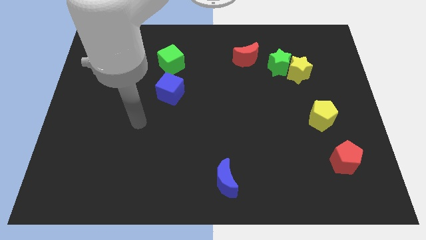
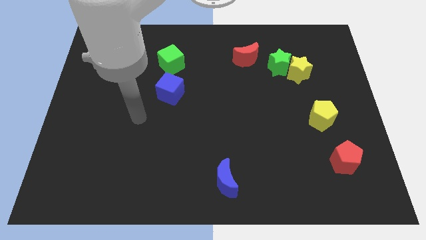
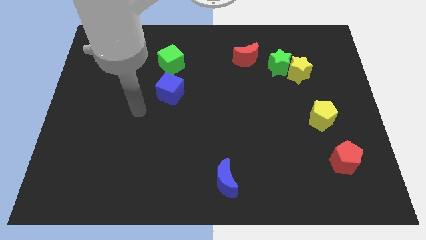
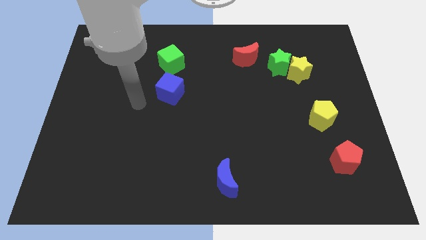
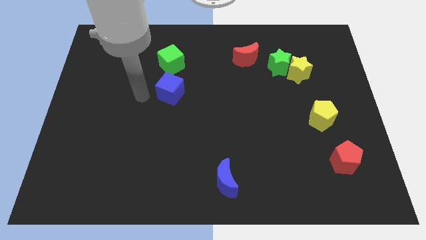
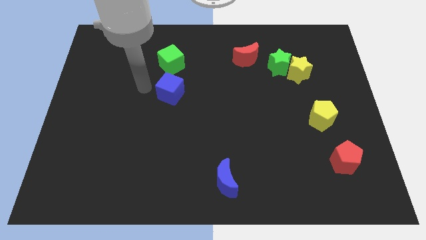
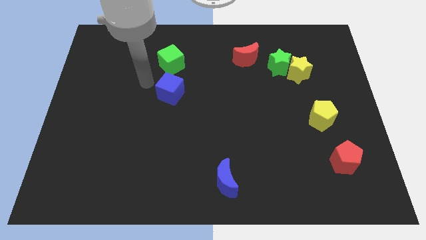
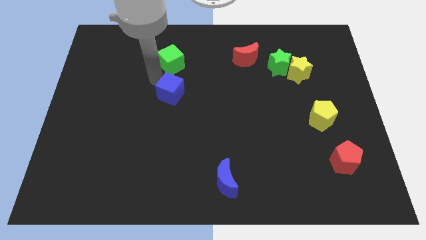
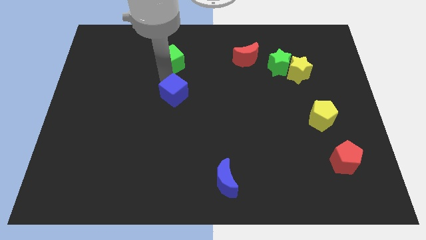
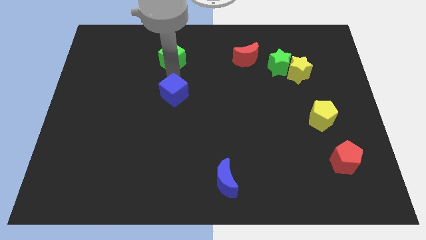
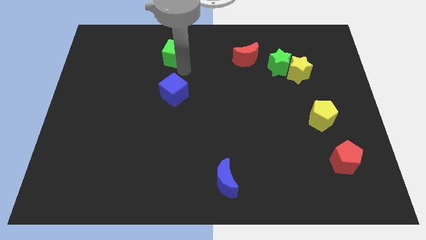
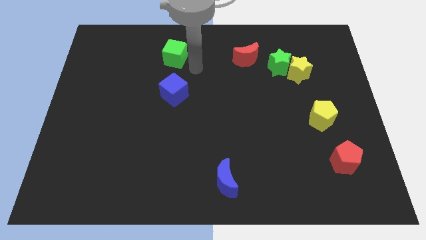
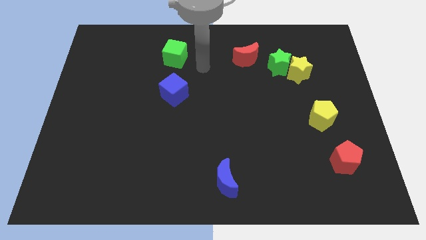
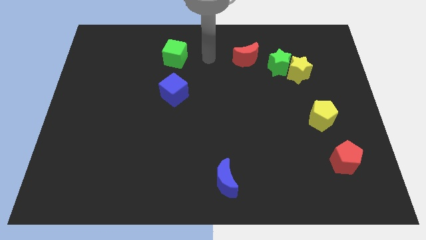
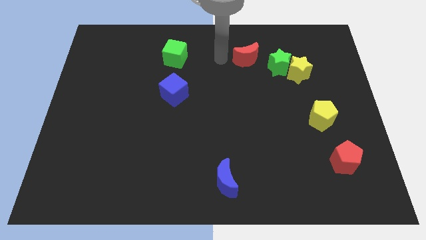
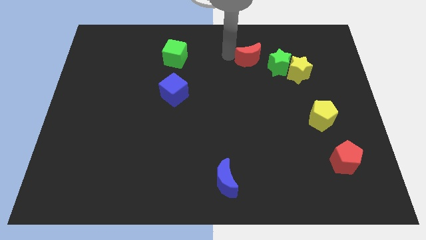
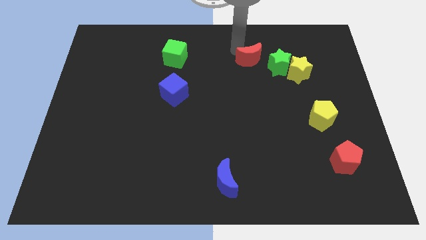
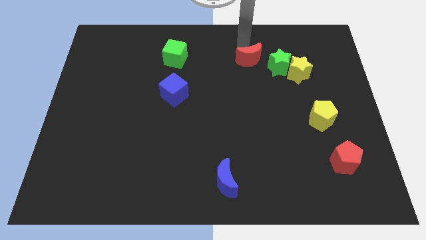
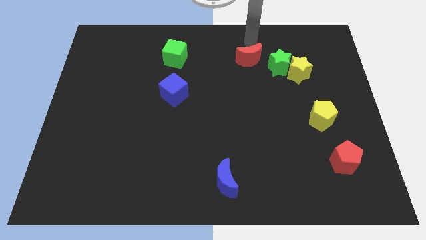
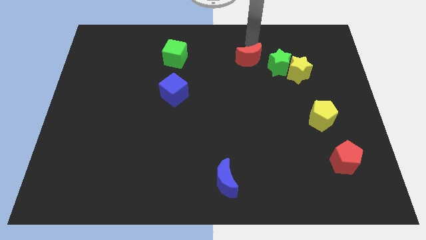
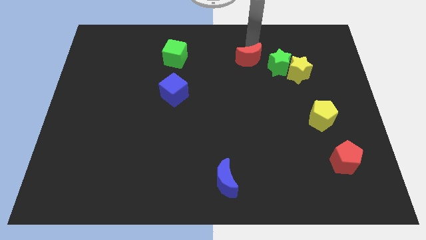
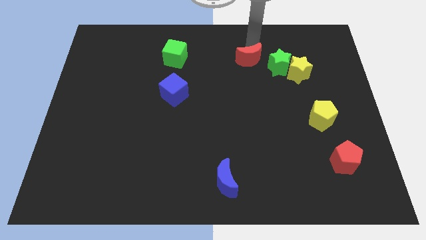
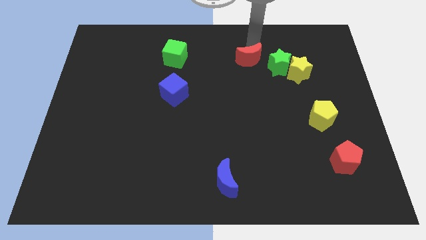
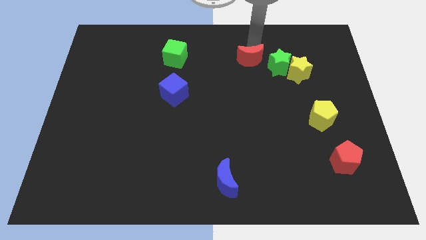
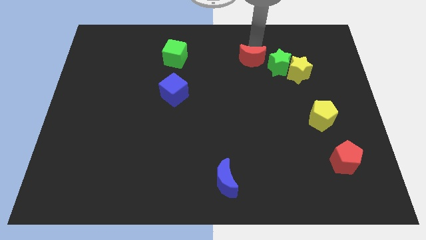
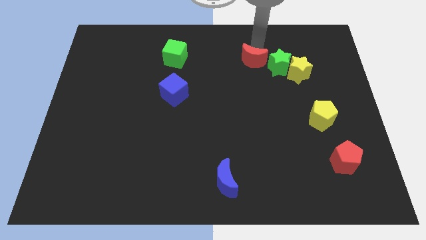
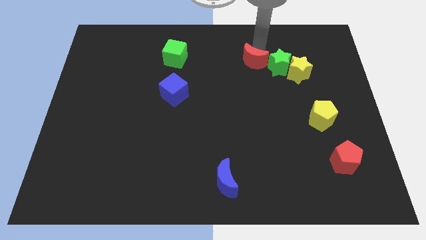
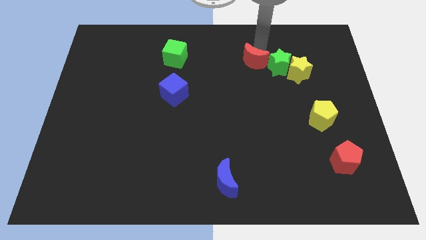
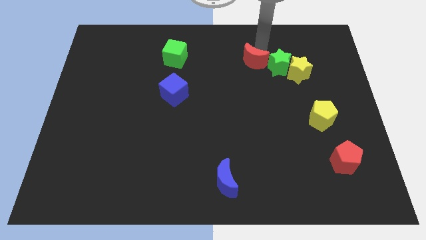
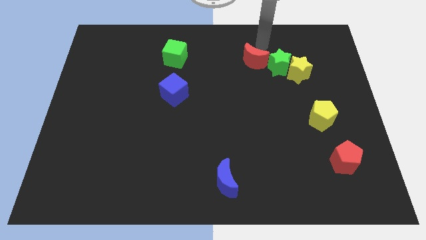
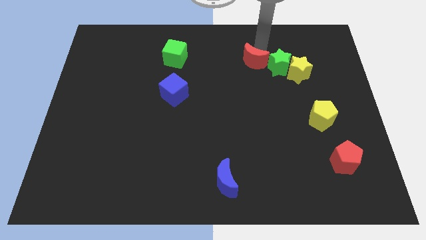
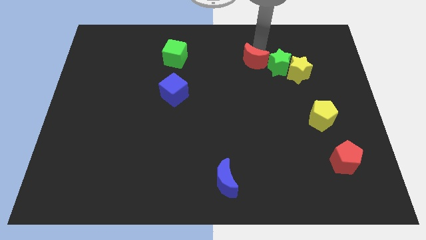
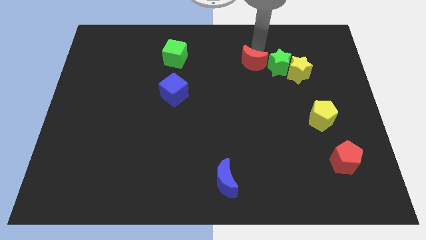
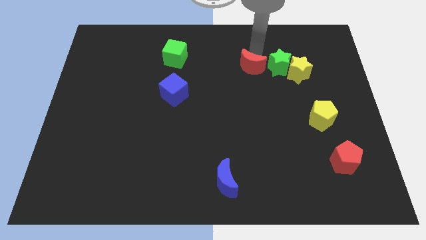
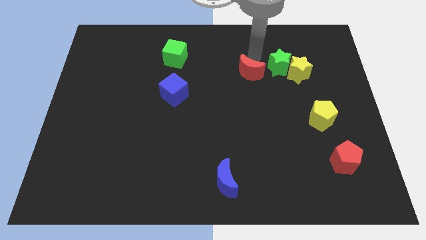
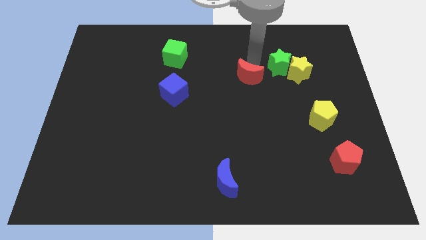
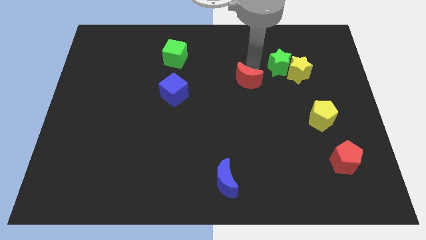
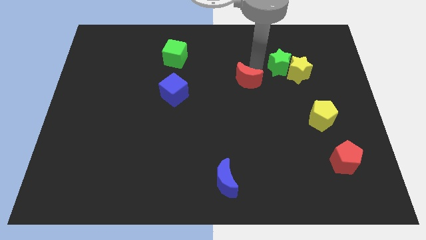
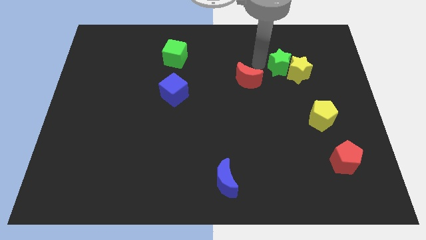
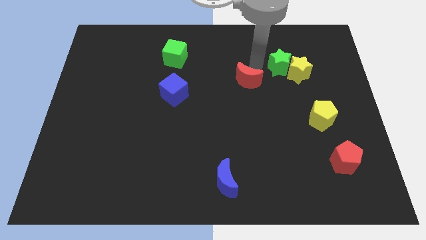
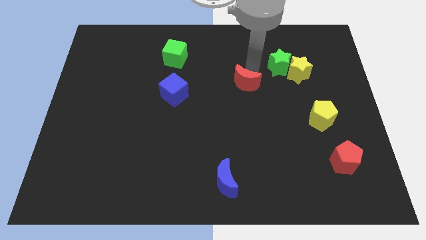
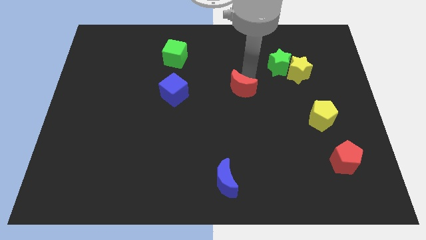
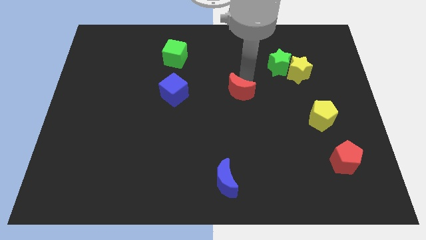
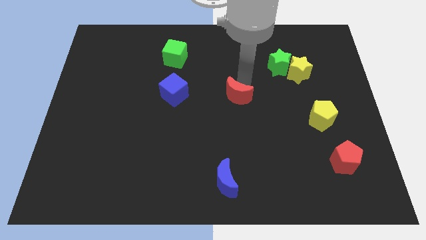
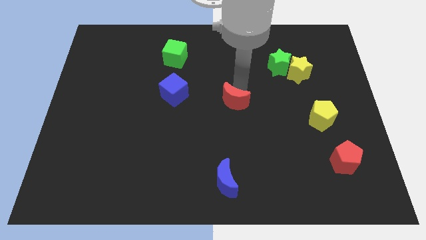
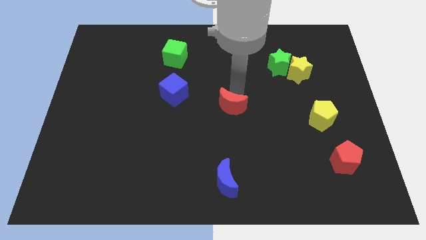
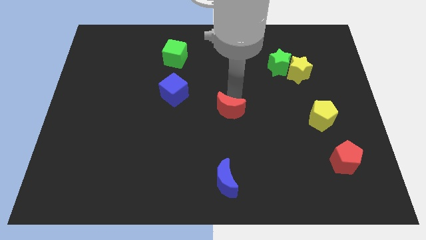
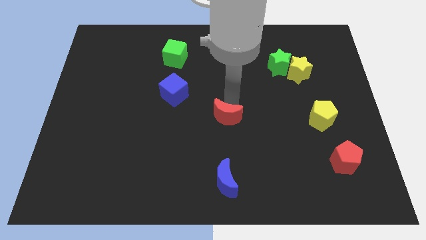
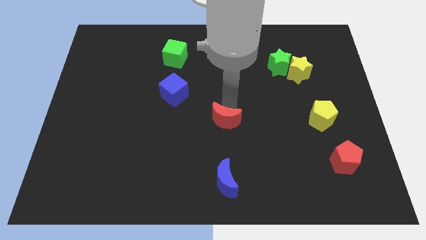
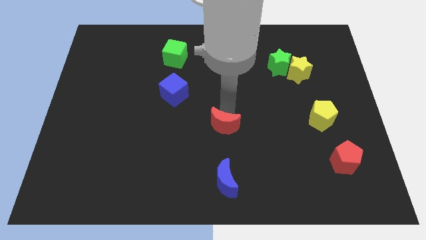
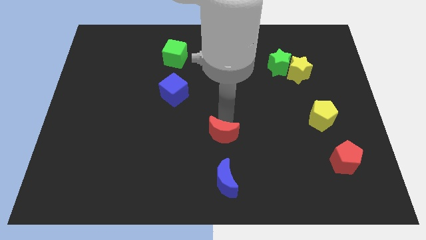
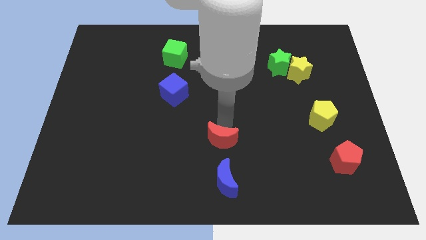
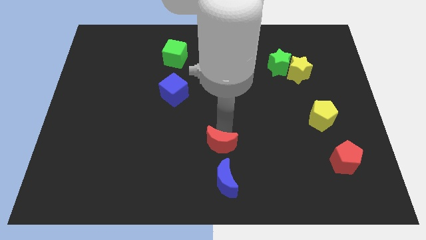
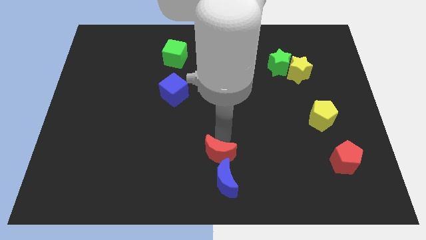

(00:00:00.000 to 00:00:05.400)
put the red moon to the bottom side
